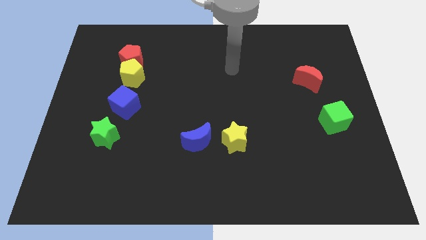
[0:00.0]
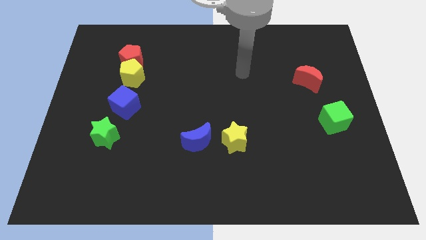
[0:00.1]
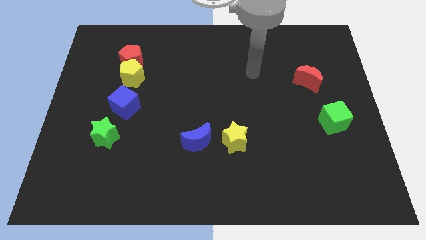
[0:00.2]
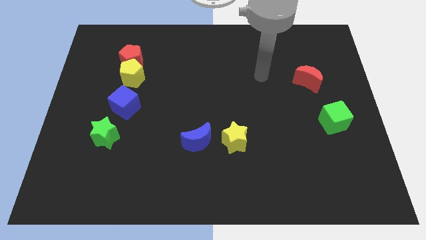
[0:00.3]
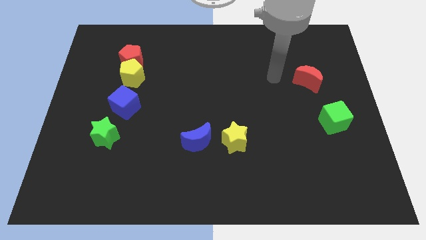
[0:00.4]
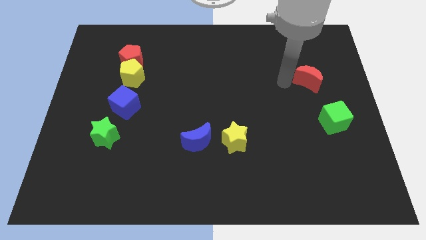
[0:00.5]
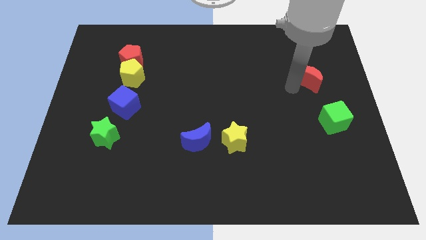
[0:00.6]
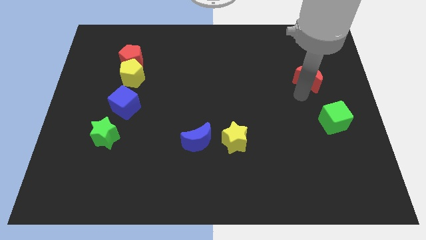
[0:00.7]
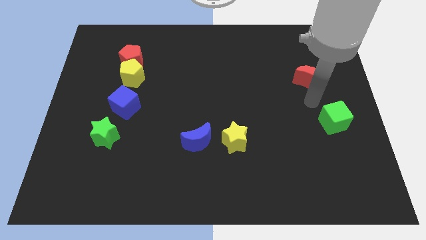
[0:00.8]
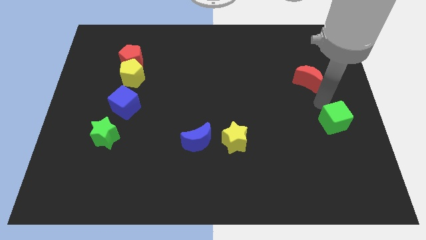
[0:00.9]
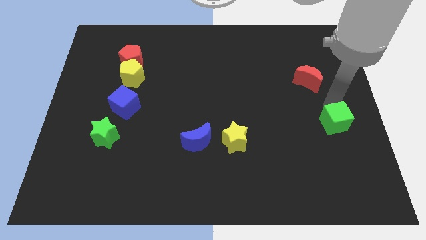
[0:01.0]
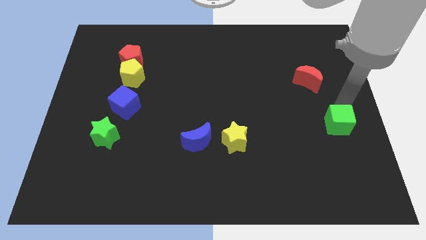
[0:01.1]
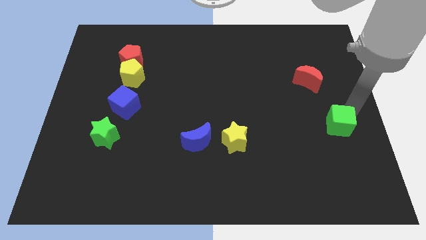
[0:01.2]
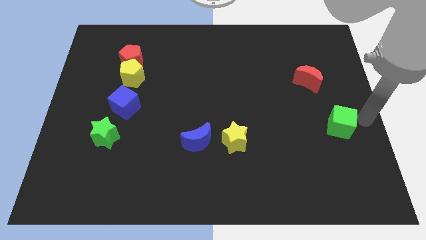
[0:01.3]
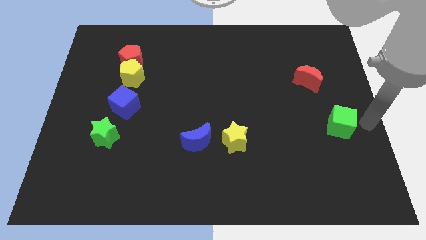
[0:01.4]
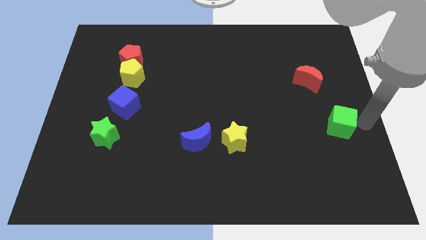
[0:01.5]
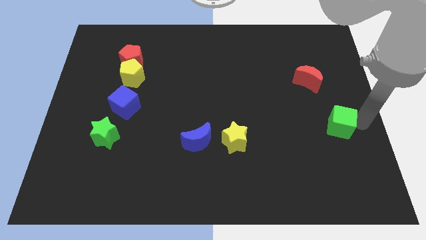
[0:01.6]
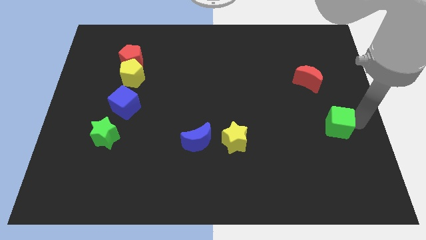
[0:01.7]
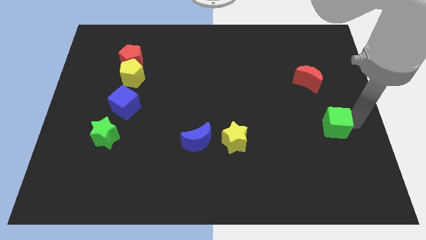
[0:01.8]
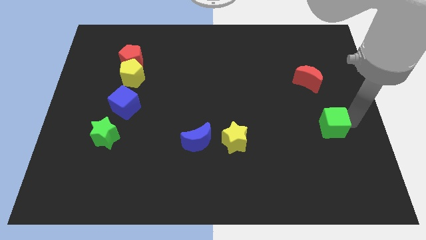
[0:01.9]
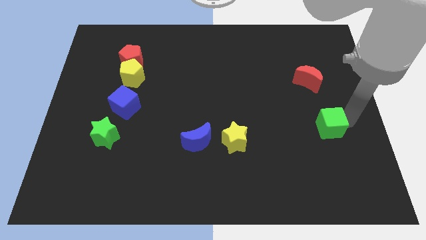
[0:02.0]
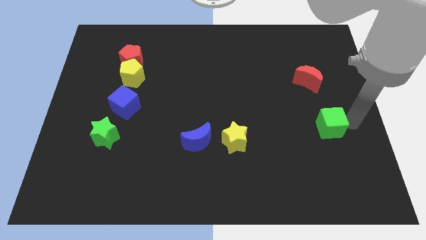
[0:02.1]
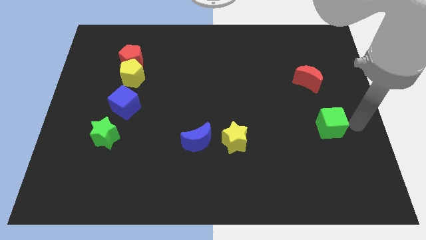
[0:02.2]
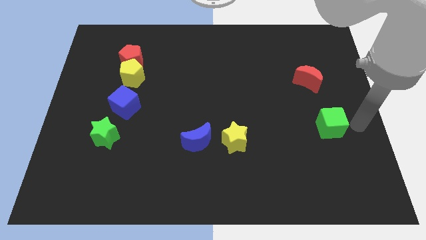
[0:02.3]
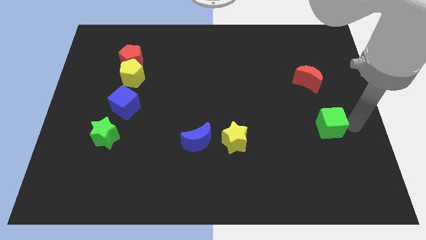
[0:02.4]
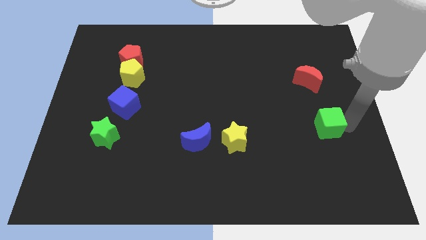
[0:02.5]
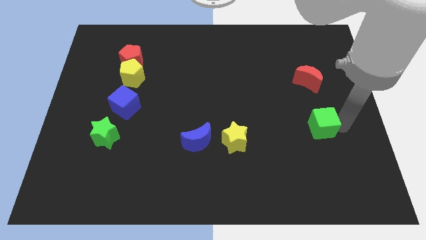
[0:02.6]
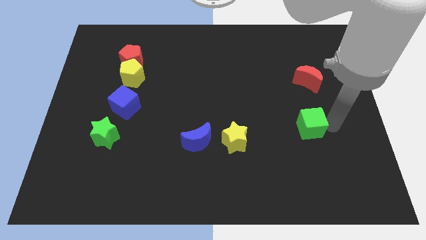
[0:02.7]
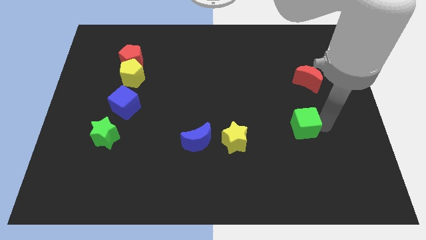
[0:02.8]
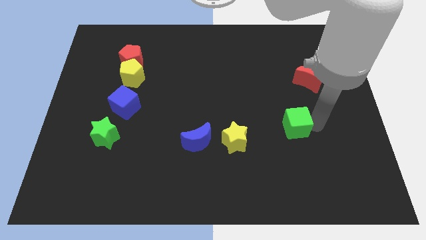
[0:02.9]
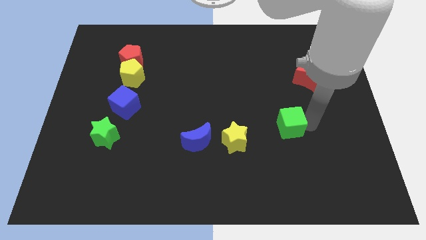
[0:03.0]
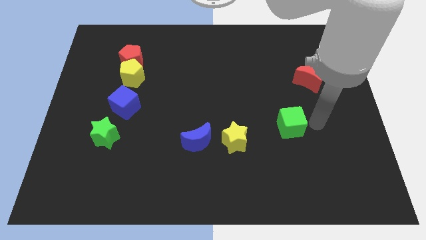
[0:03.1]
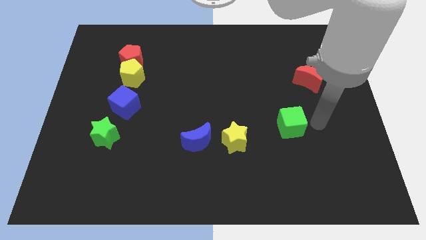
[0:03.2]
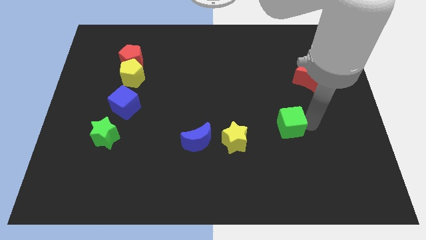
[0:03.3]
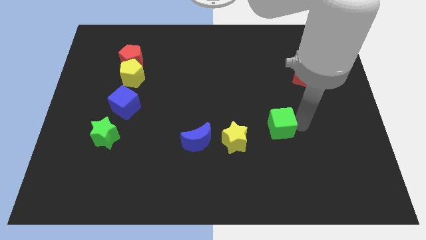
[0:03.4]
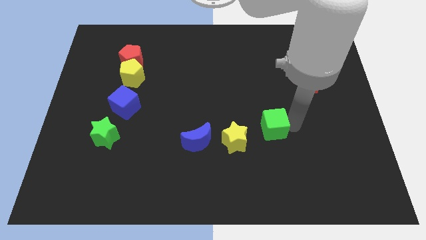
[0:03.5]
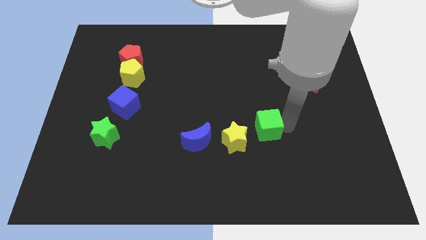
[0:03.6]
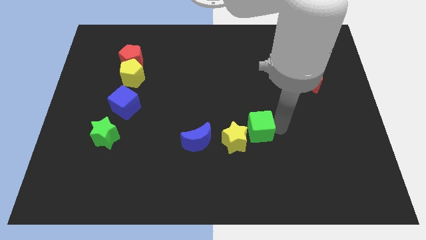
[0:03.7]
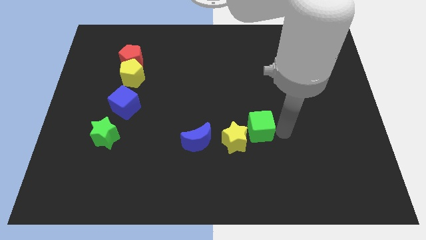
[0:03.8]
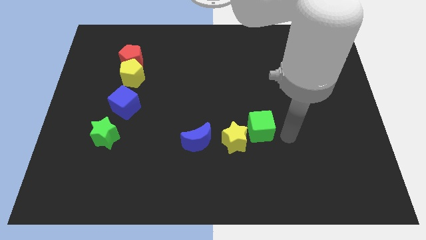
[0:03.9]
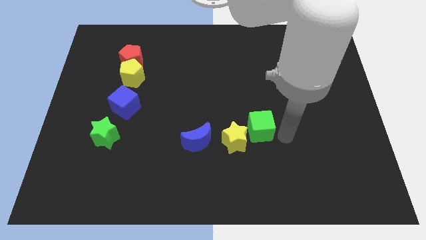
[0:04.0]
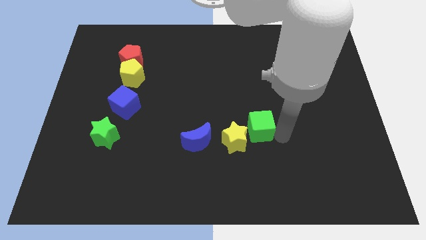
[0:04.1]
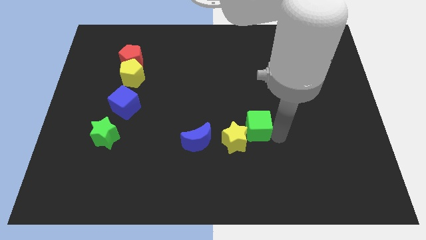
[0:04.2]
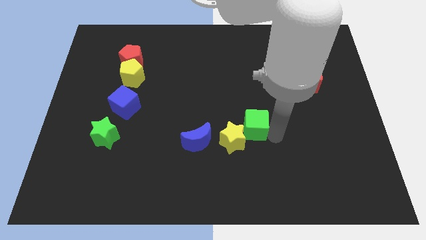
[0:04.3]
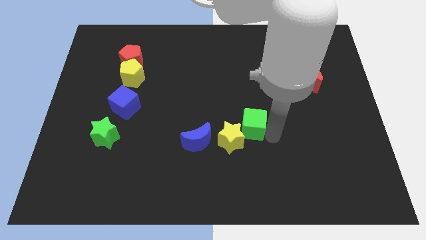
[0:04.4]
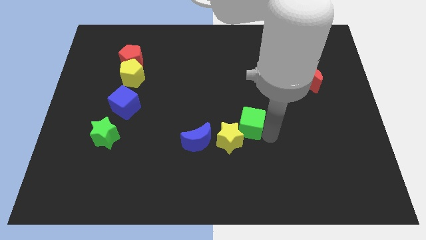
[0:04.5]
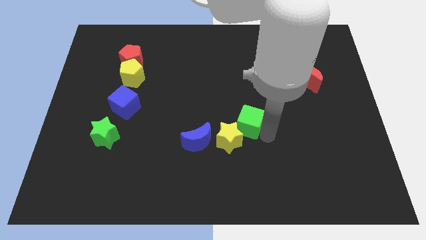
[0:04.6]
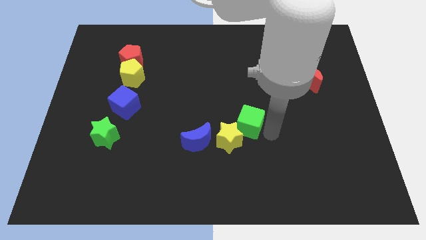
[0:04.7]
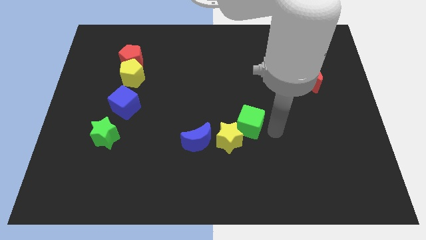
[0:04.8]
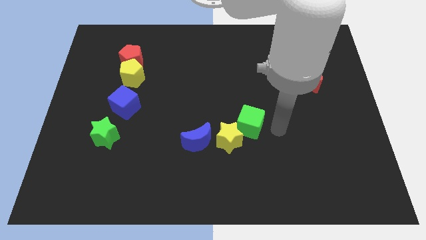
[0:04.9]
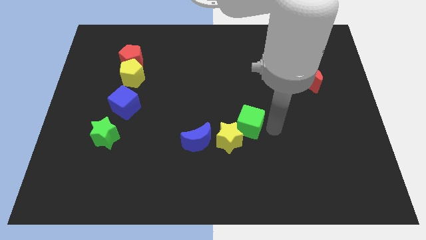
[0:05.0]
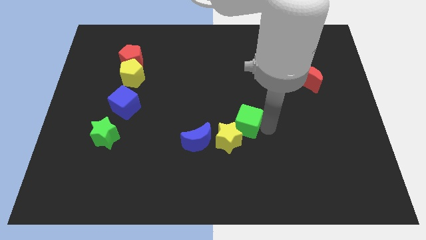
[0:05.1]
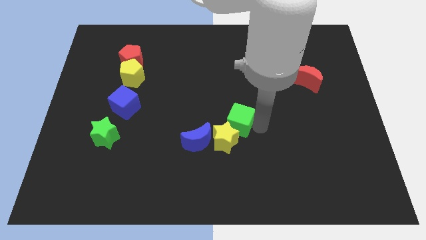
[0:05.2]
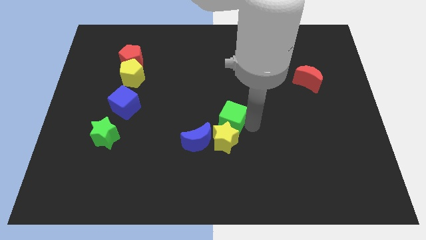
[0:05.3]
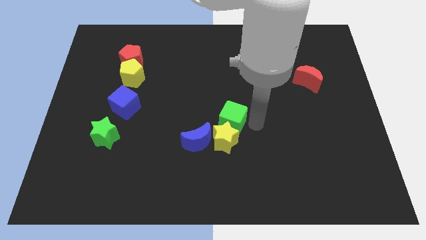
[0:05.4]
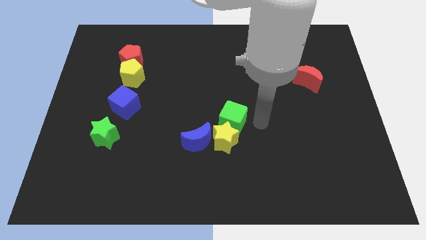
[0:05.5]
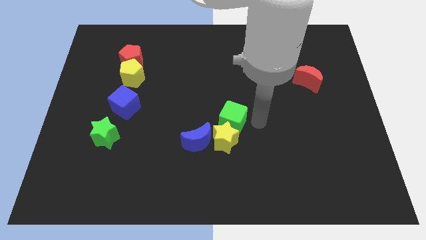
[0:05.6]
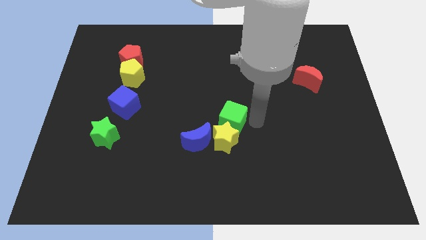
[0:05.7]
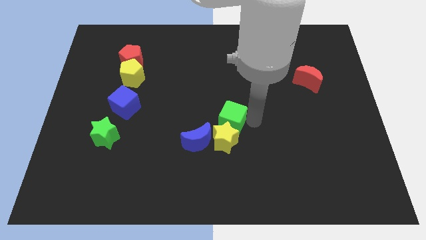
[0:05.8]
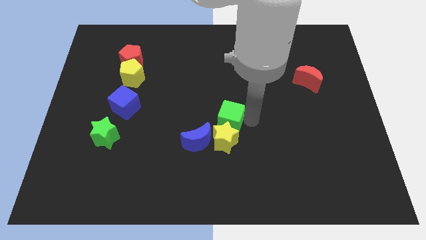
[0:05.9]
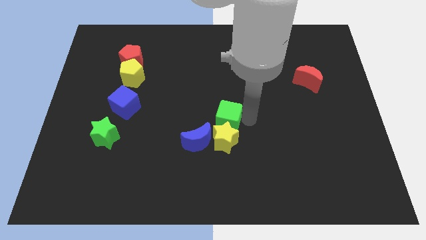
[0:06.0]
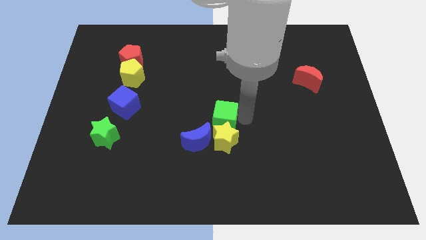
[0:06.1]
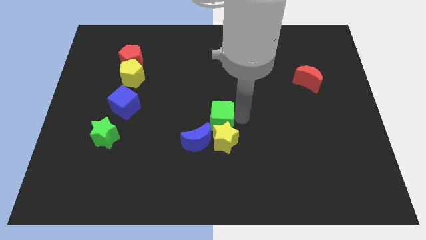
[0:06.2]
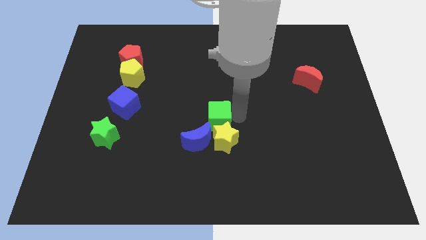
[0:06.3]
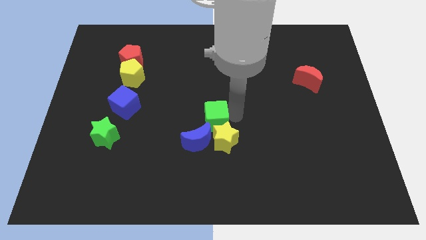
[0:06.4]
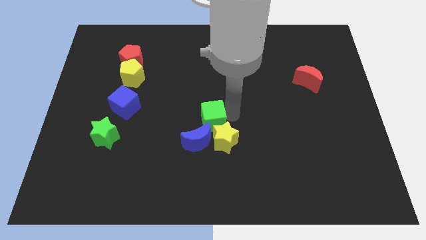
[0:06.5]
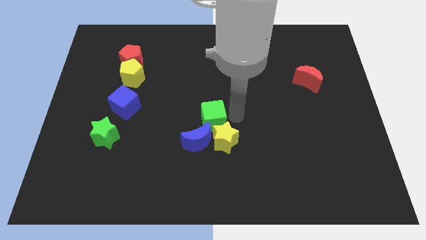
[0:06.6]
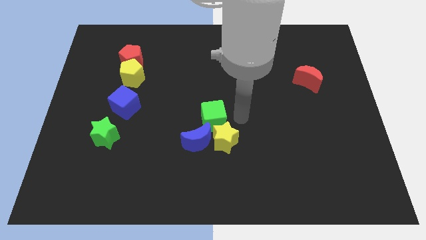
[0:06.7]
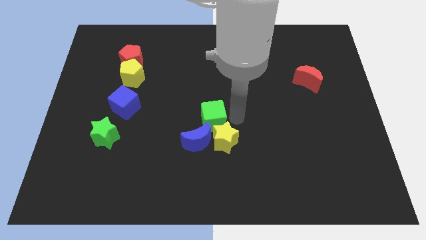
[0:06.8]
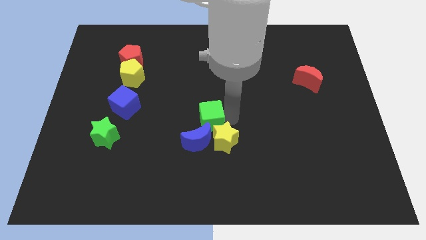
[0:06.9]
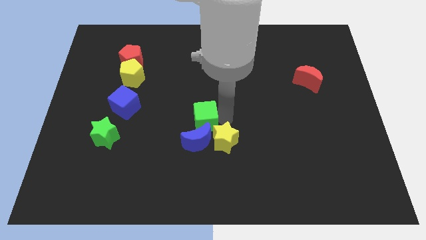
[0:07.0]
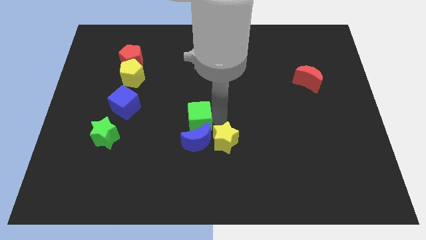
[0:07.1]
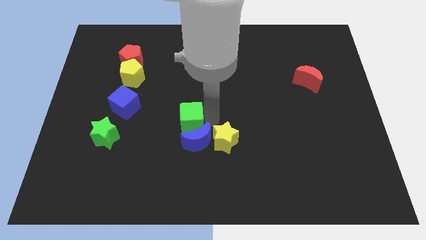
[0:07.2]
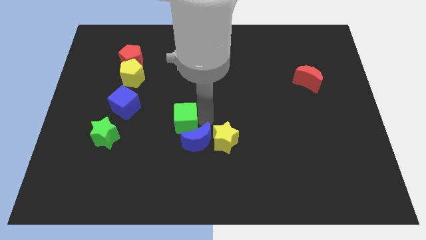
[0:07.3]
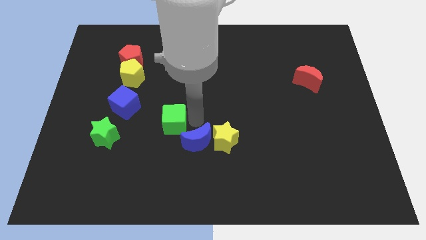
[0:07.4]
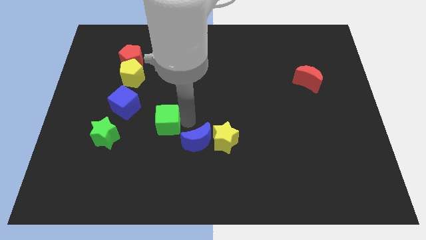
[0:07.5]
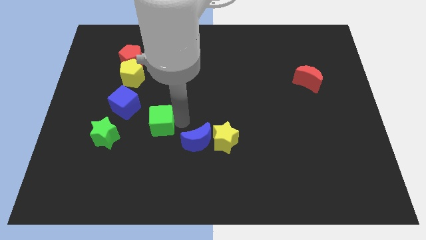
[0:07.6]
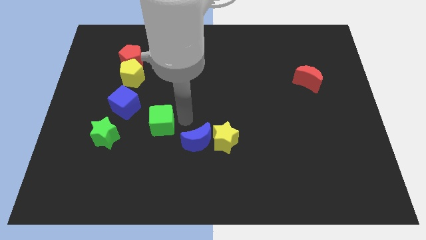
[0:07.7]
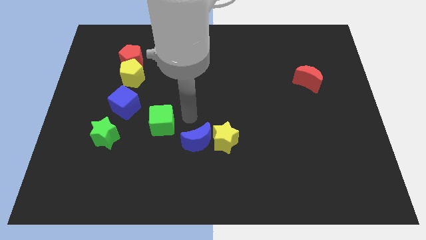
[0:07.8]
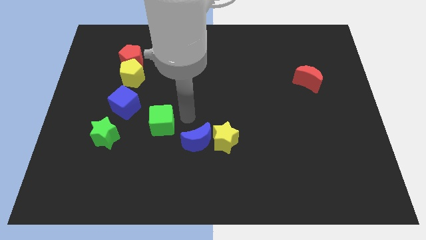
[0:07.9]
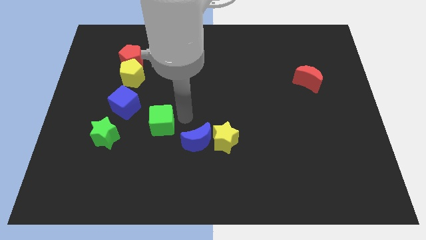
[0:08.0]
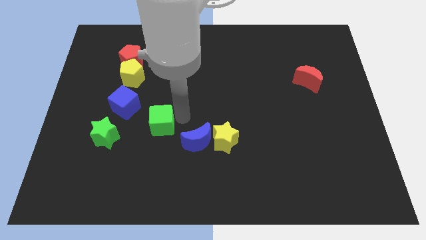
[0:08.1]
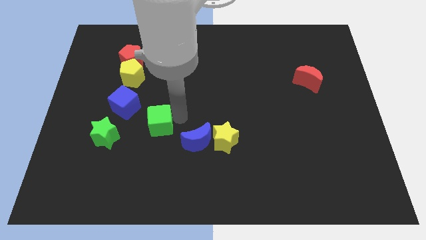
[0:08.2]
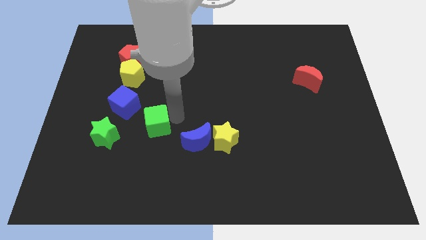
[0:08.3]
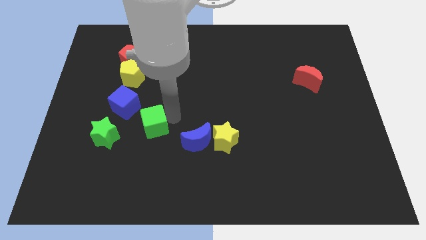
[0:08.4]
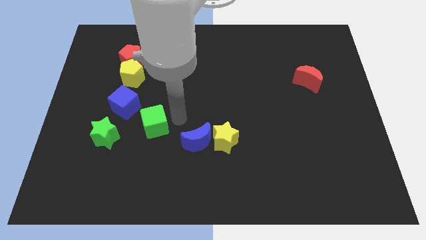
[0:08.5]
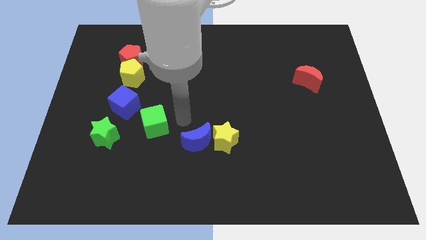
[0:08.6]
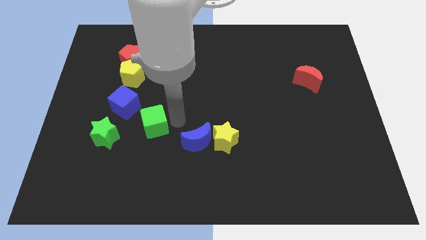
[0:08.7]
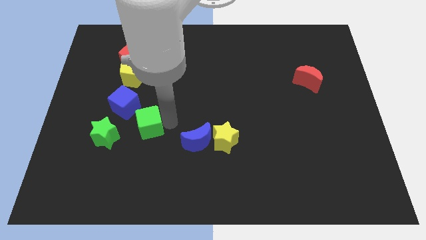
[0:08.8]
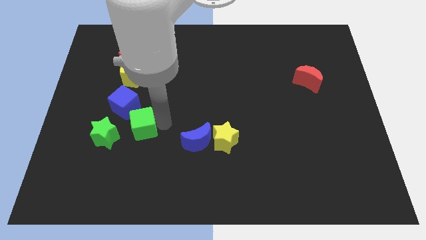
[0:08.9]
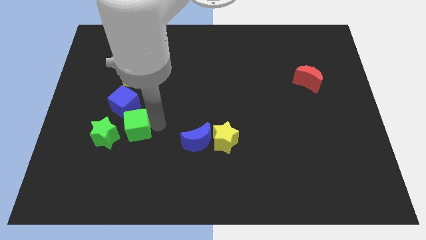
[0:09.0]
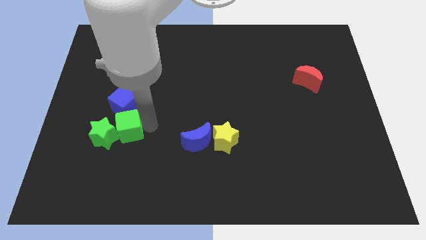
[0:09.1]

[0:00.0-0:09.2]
put the green cube close to the green star
